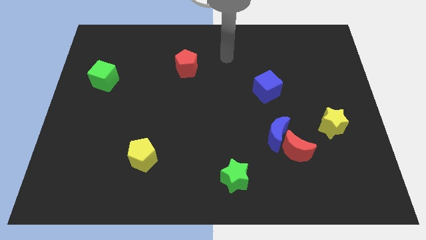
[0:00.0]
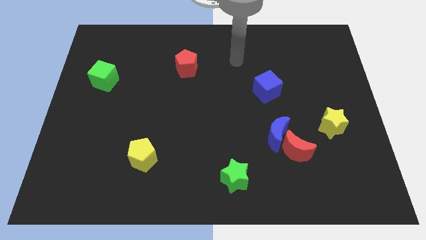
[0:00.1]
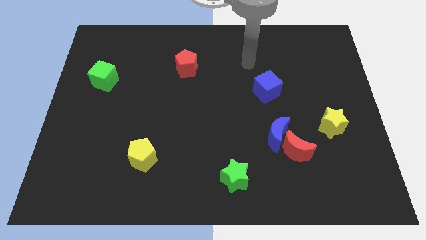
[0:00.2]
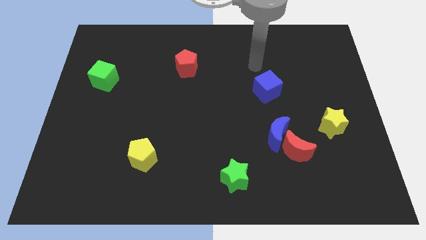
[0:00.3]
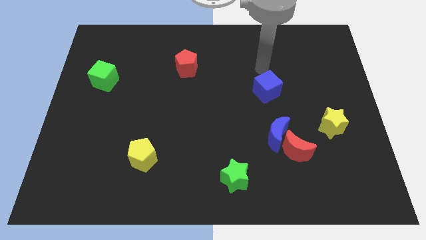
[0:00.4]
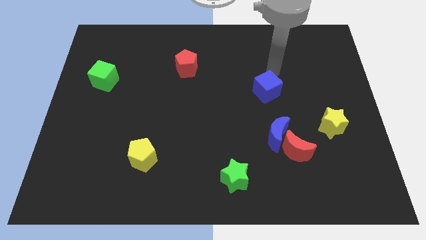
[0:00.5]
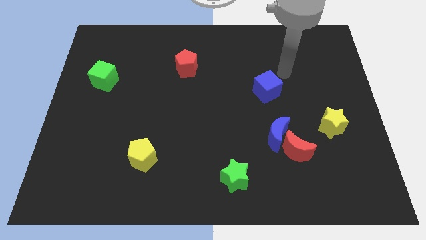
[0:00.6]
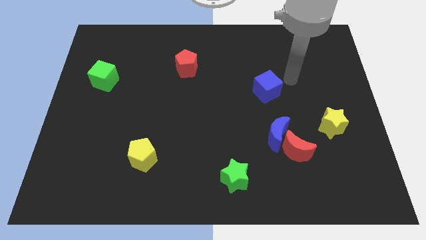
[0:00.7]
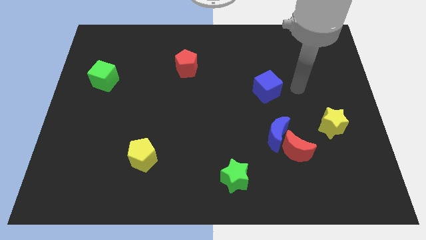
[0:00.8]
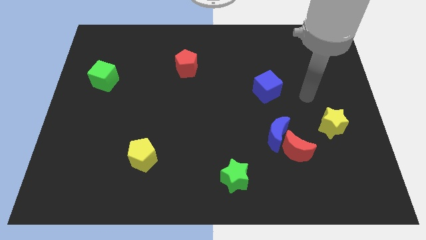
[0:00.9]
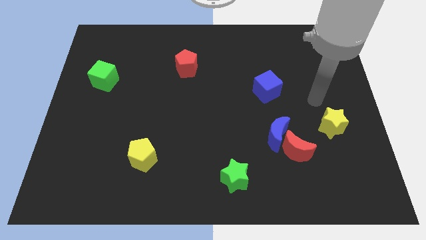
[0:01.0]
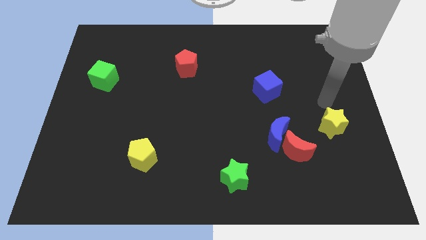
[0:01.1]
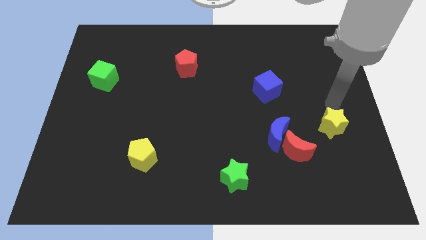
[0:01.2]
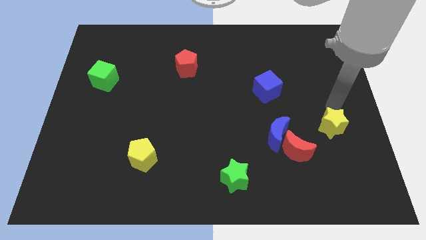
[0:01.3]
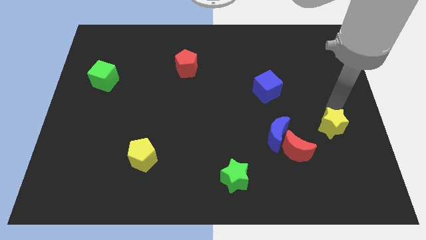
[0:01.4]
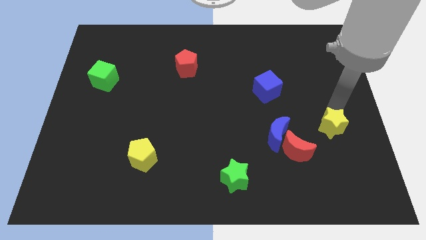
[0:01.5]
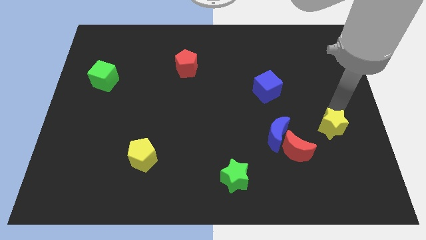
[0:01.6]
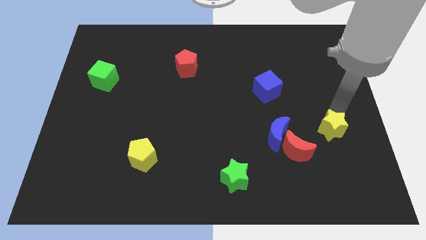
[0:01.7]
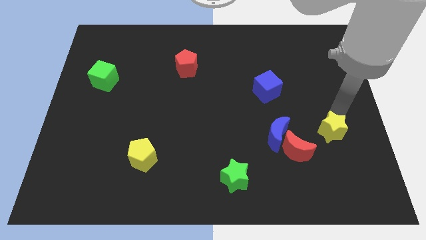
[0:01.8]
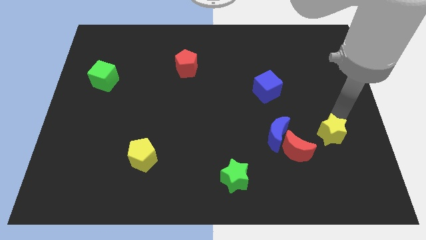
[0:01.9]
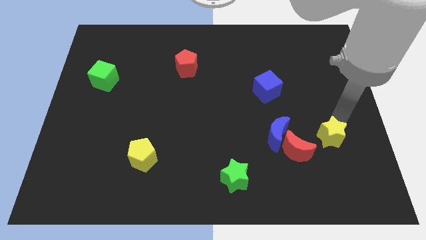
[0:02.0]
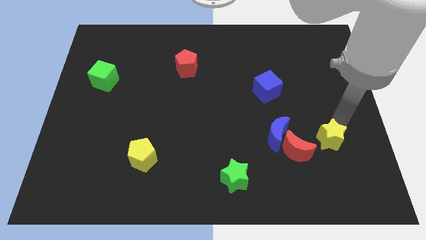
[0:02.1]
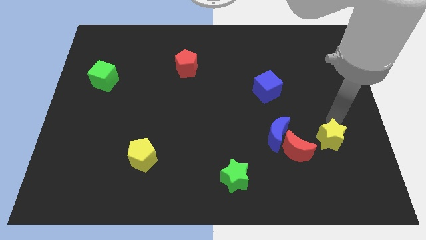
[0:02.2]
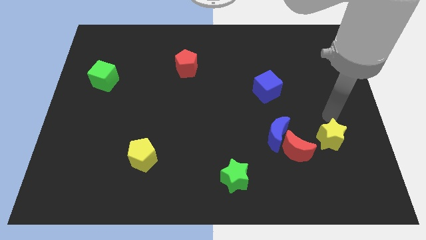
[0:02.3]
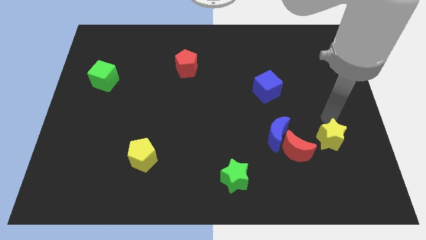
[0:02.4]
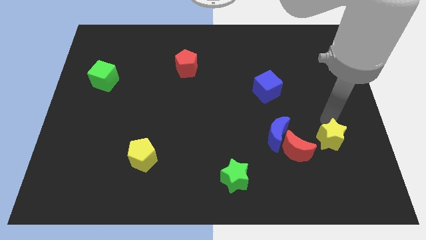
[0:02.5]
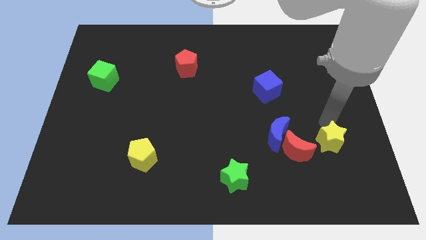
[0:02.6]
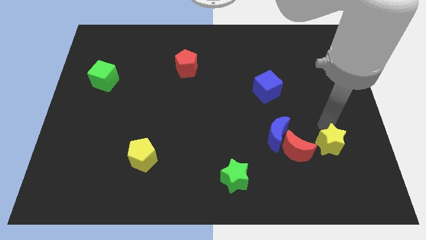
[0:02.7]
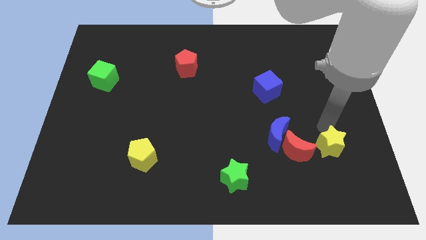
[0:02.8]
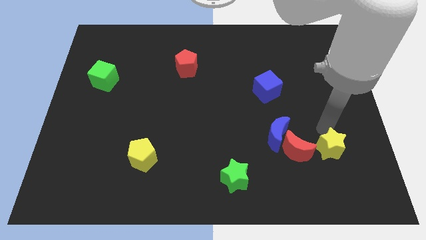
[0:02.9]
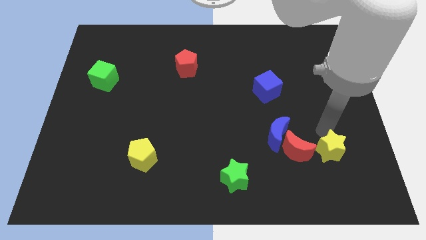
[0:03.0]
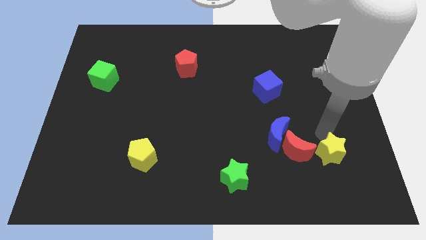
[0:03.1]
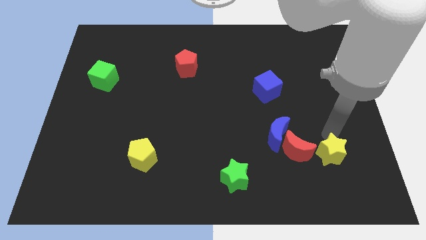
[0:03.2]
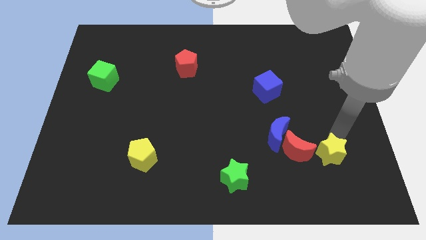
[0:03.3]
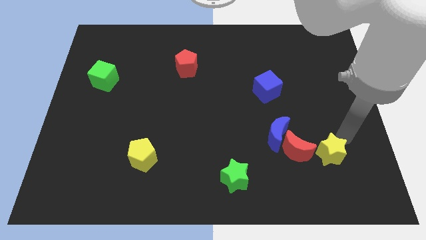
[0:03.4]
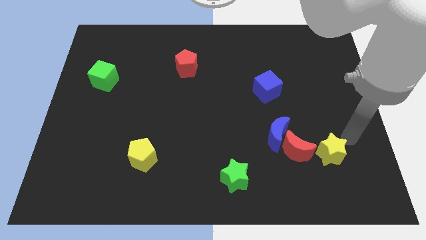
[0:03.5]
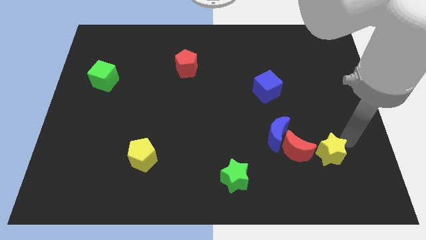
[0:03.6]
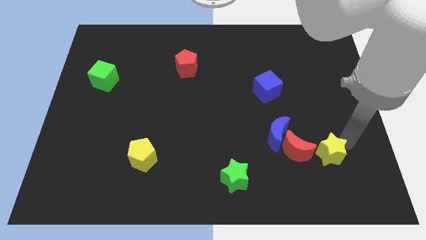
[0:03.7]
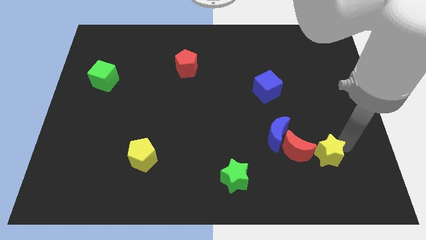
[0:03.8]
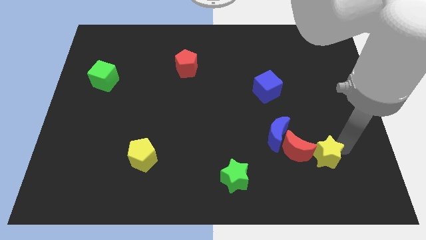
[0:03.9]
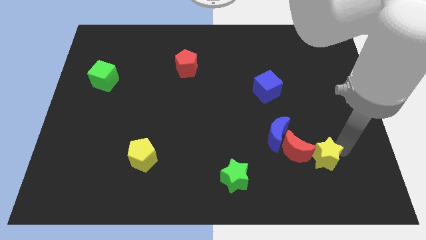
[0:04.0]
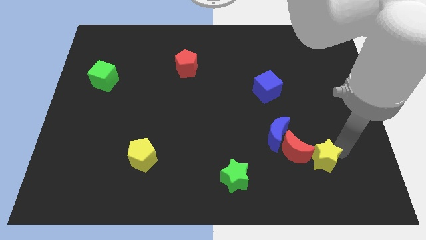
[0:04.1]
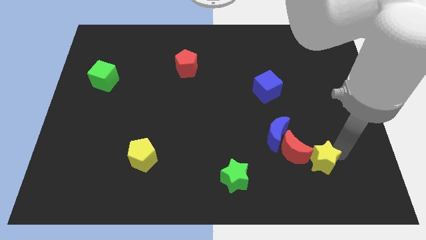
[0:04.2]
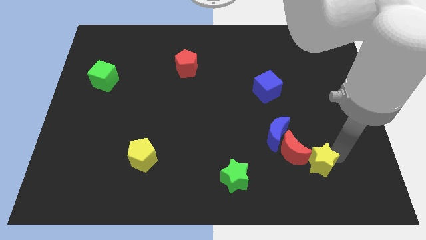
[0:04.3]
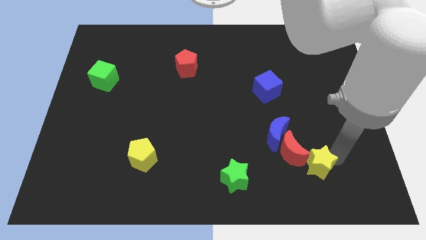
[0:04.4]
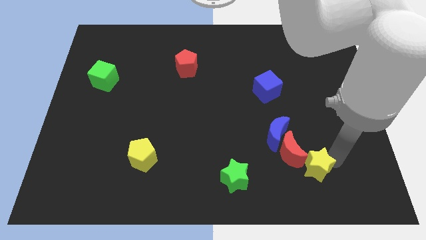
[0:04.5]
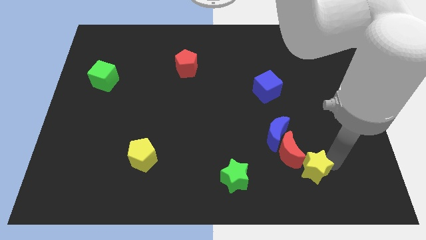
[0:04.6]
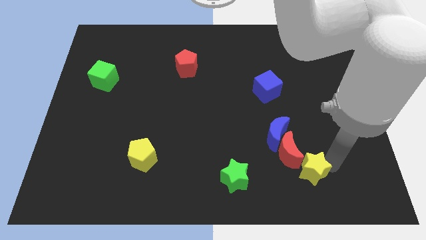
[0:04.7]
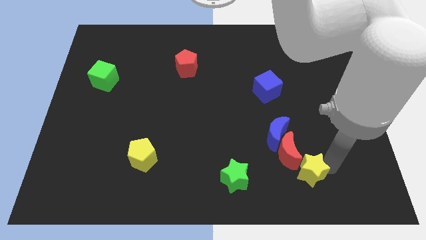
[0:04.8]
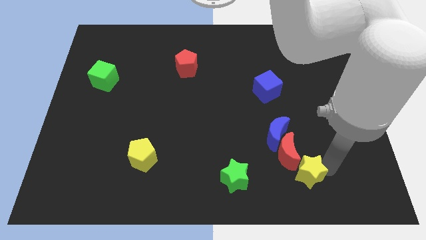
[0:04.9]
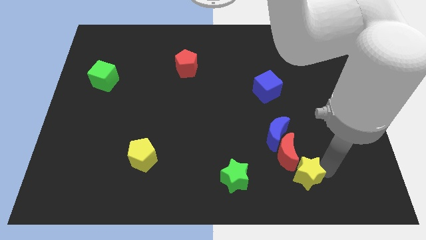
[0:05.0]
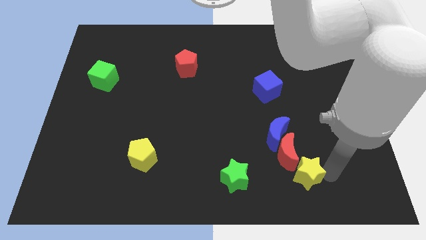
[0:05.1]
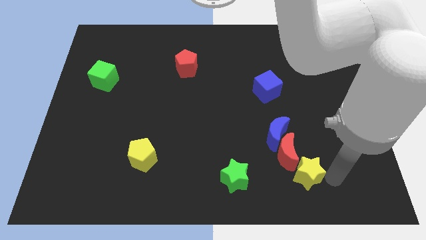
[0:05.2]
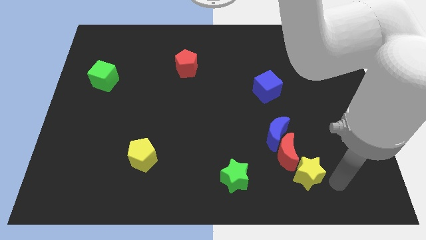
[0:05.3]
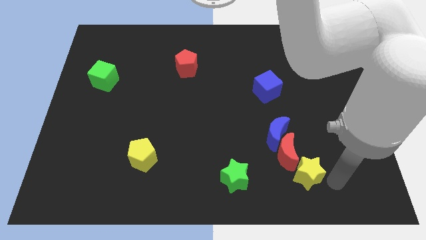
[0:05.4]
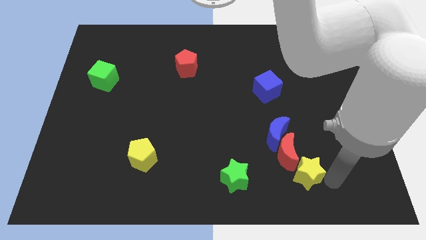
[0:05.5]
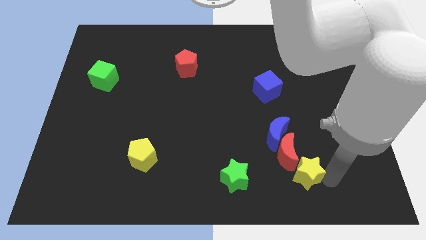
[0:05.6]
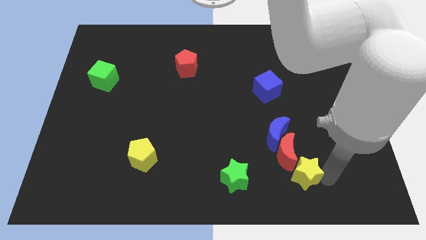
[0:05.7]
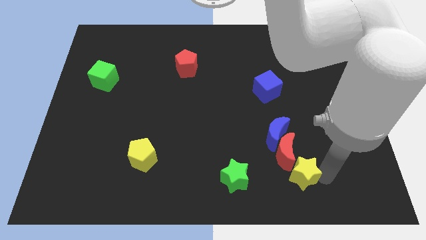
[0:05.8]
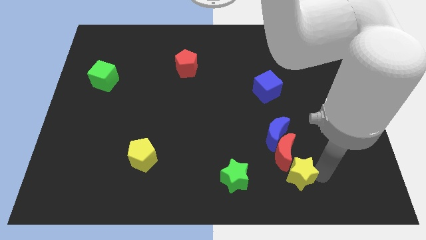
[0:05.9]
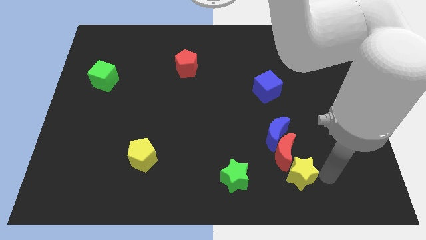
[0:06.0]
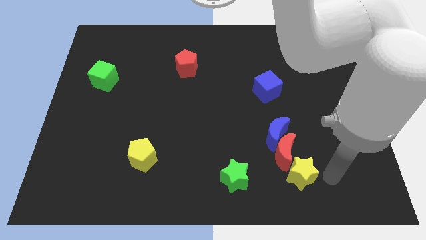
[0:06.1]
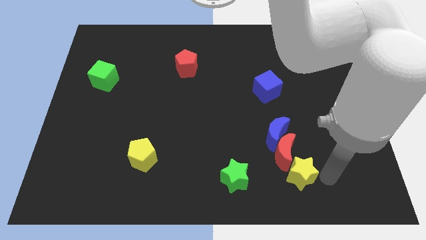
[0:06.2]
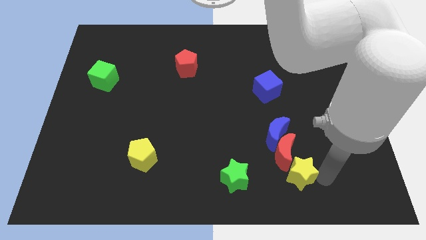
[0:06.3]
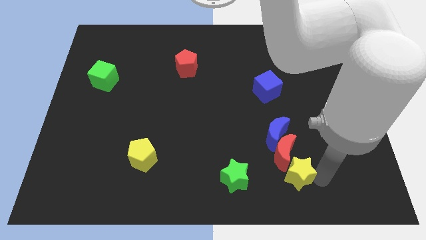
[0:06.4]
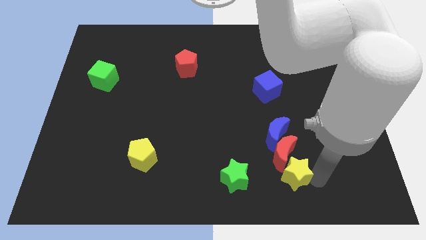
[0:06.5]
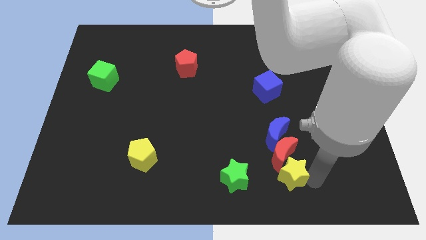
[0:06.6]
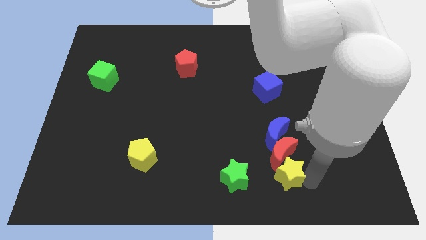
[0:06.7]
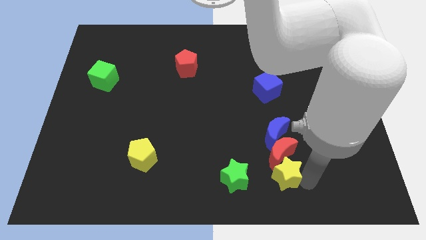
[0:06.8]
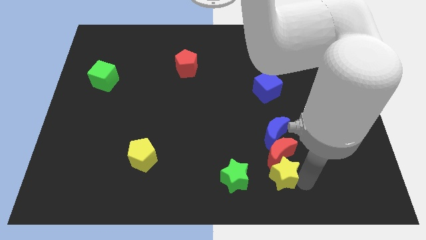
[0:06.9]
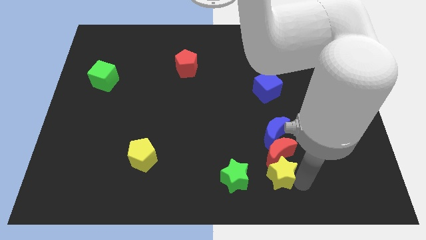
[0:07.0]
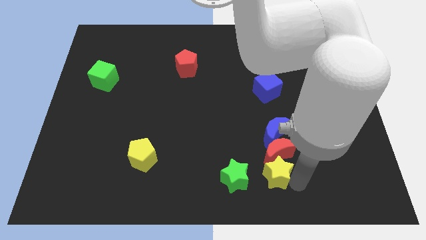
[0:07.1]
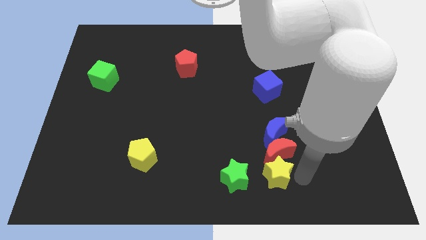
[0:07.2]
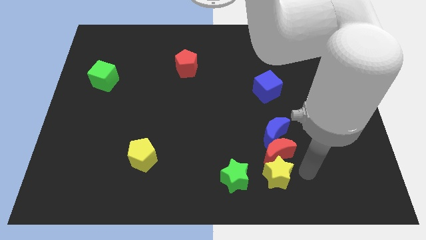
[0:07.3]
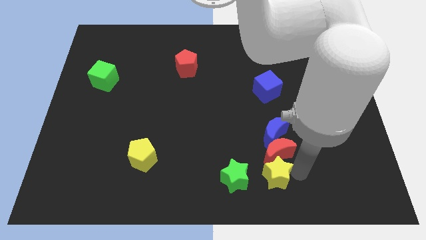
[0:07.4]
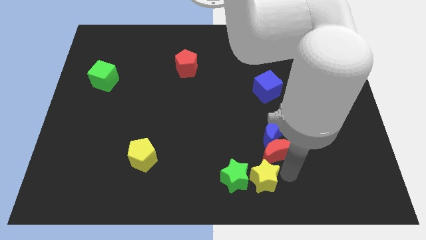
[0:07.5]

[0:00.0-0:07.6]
push the yellow star towards the green star

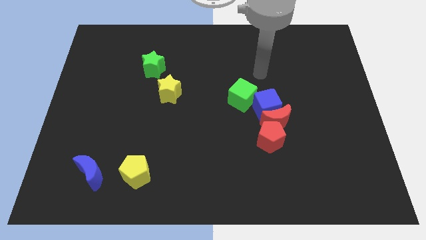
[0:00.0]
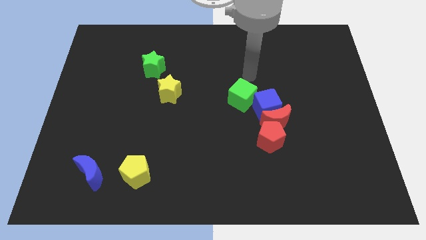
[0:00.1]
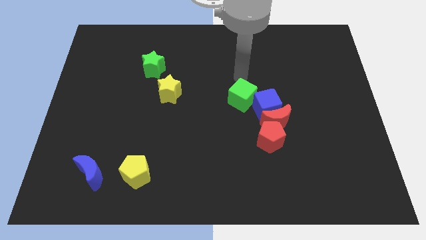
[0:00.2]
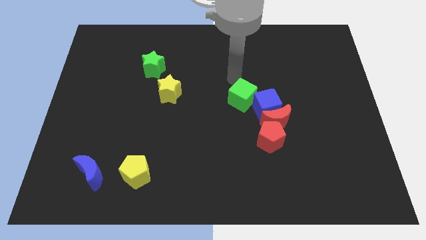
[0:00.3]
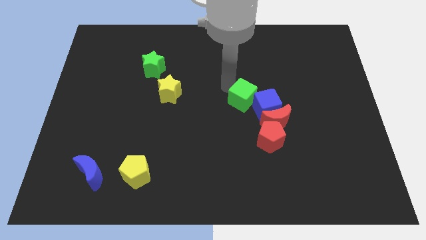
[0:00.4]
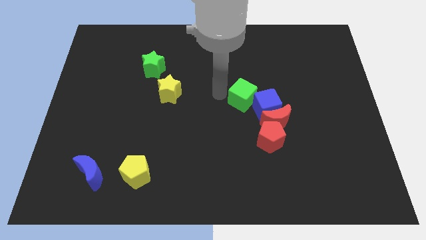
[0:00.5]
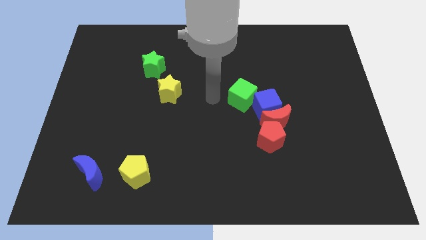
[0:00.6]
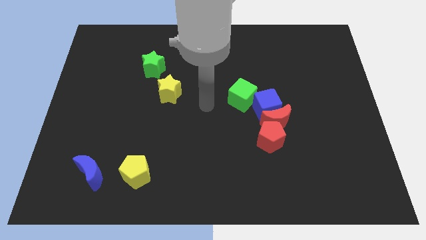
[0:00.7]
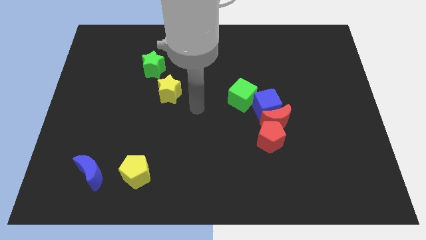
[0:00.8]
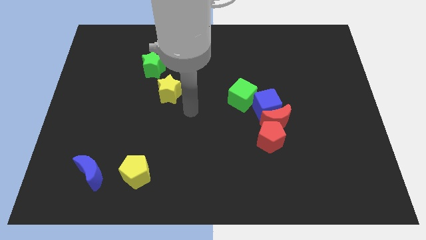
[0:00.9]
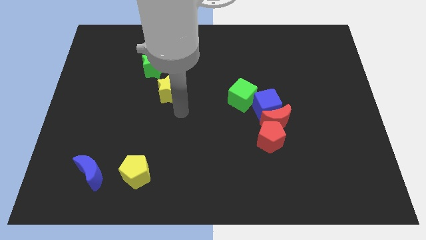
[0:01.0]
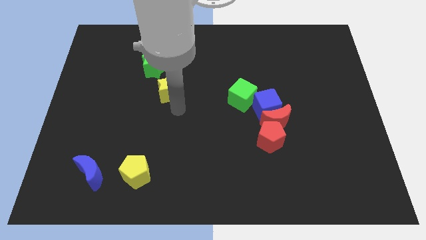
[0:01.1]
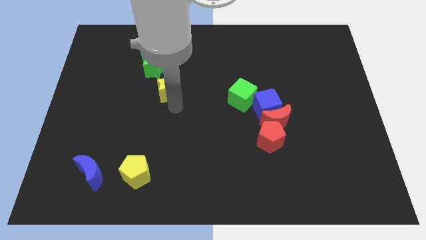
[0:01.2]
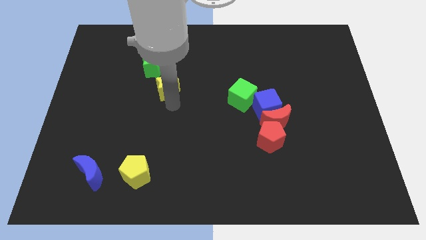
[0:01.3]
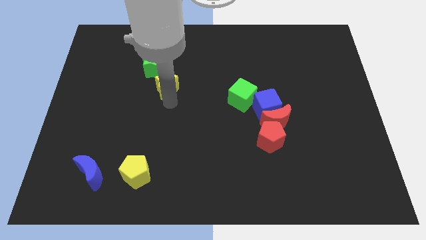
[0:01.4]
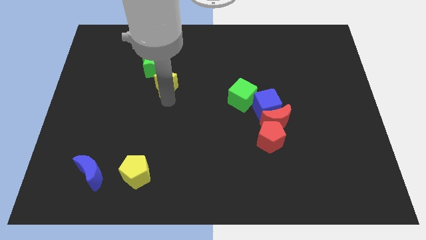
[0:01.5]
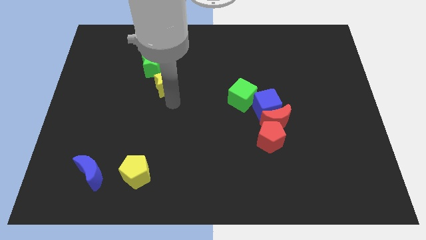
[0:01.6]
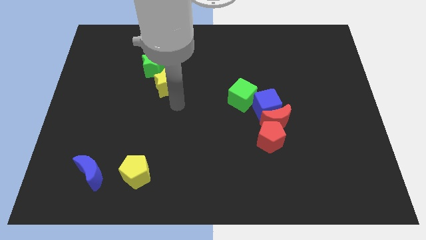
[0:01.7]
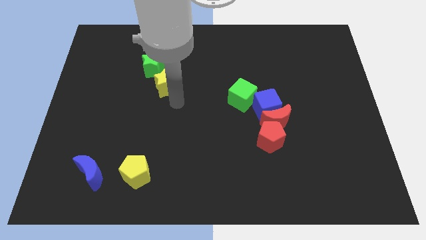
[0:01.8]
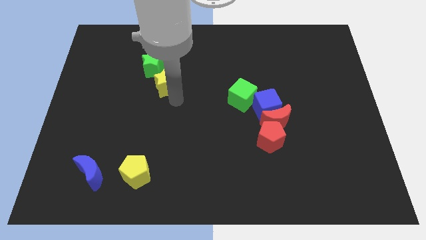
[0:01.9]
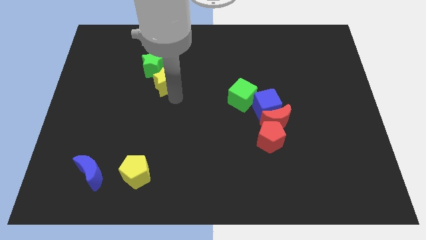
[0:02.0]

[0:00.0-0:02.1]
push the yellow star next to the green star
